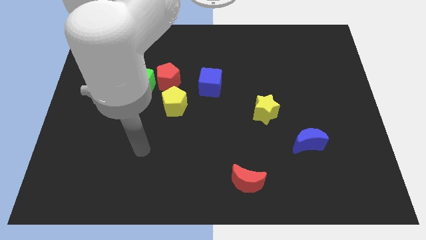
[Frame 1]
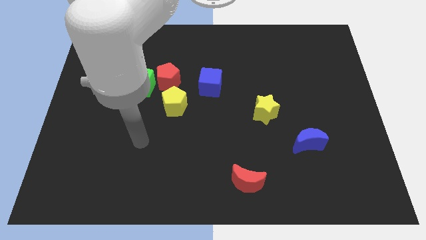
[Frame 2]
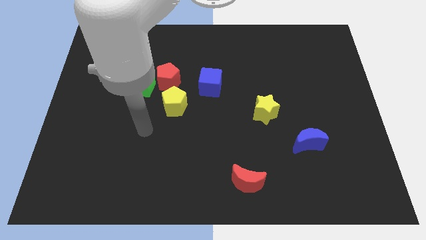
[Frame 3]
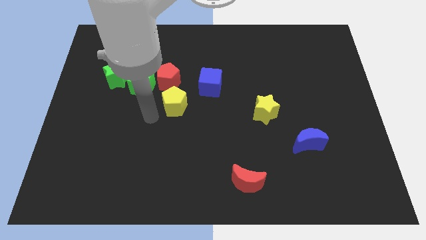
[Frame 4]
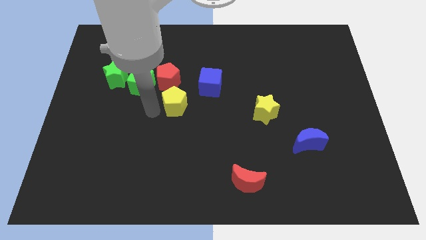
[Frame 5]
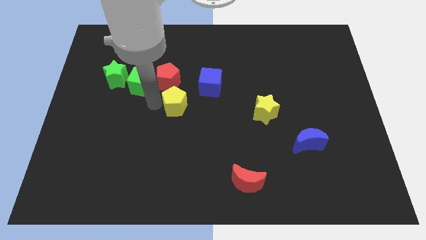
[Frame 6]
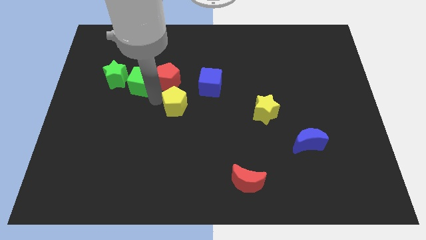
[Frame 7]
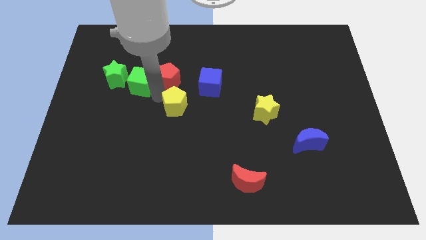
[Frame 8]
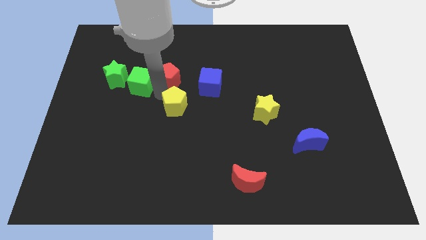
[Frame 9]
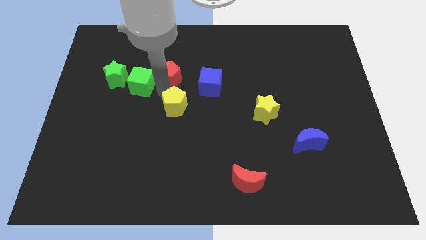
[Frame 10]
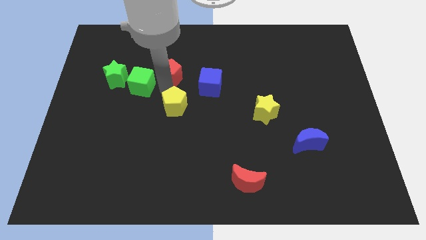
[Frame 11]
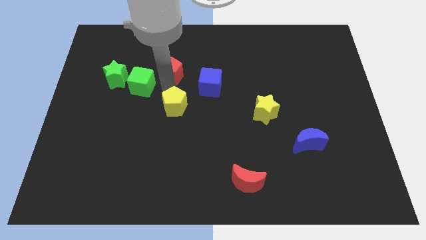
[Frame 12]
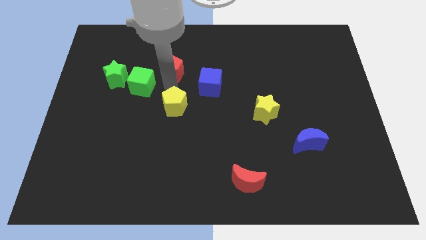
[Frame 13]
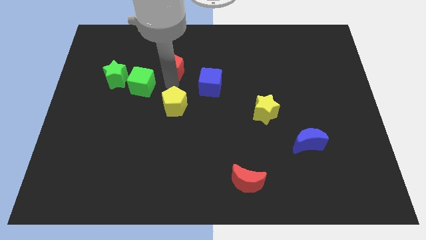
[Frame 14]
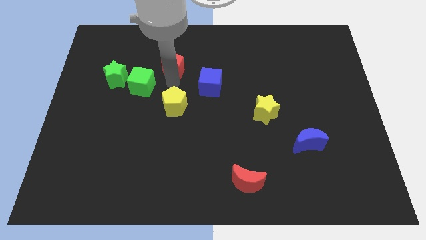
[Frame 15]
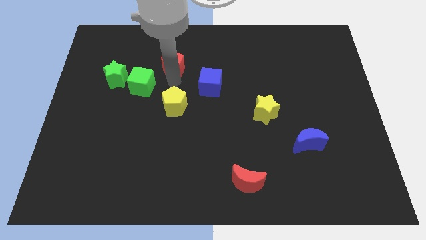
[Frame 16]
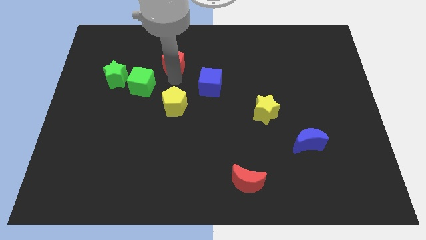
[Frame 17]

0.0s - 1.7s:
separate the red pentagon from the green cube and yellow pentagon

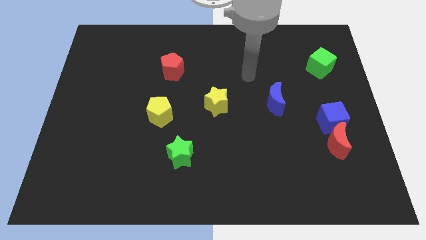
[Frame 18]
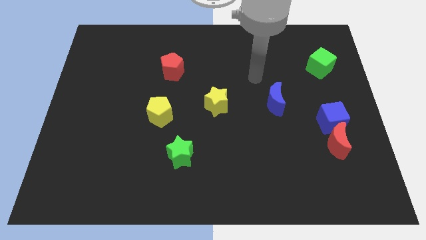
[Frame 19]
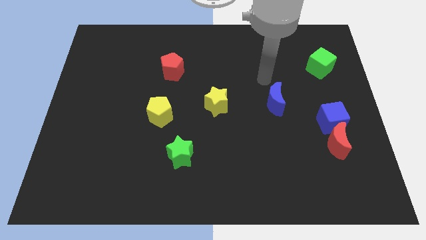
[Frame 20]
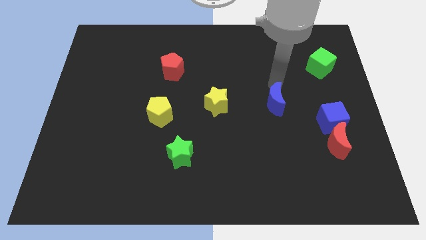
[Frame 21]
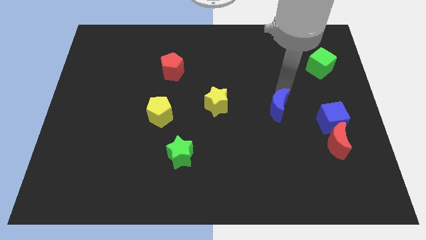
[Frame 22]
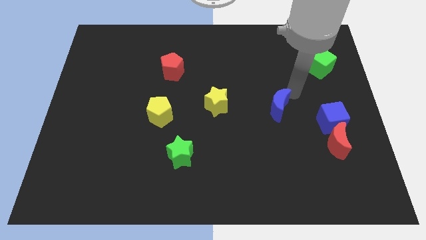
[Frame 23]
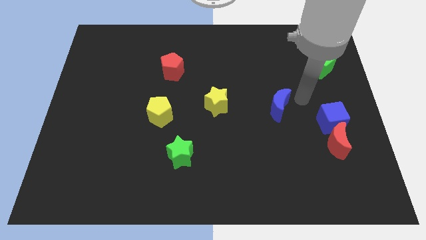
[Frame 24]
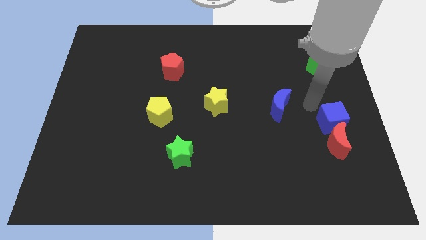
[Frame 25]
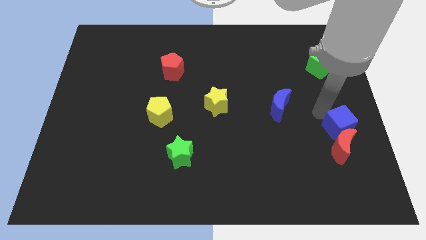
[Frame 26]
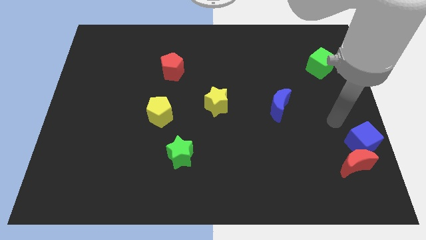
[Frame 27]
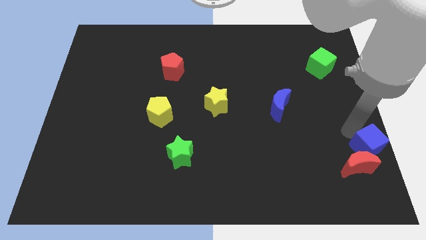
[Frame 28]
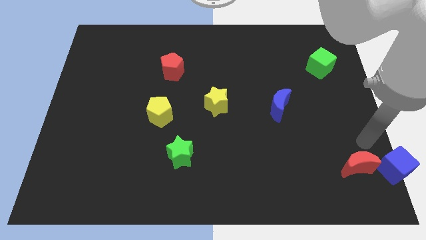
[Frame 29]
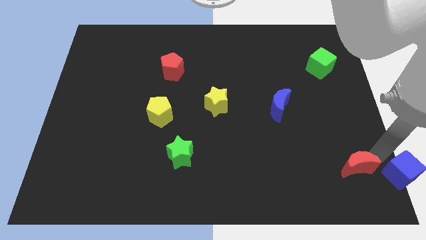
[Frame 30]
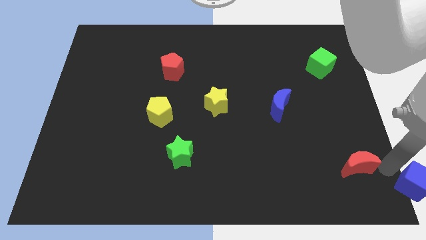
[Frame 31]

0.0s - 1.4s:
separate the red moon from the blue cube

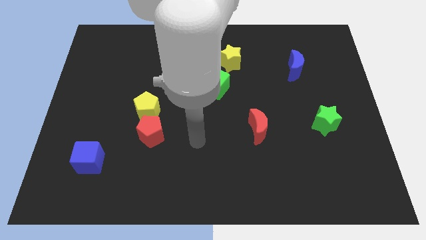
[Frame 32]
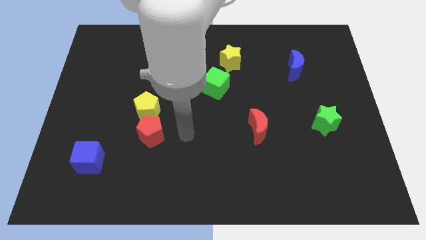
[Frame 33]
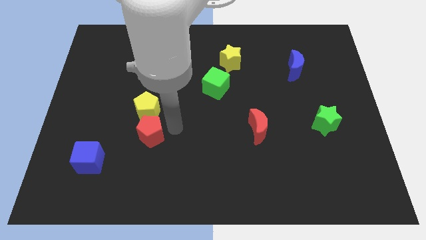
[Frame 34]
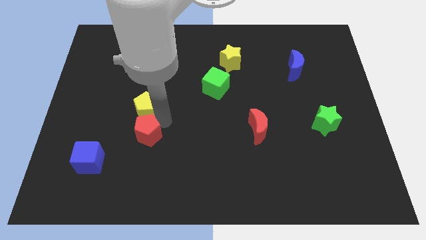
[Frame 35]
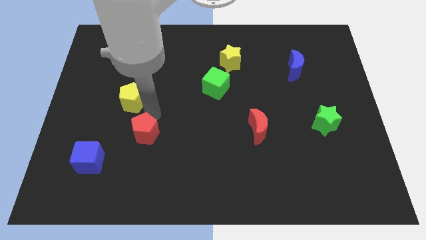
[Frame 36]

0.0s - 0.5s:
pull the red pentagon apart from the yellow pentagon

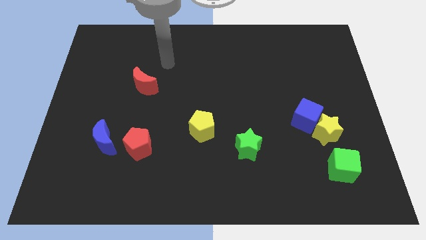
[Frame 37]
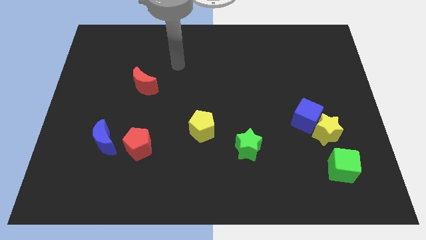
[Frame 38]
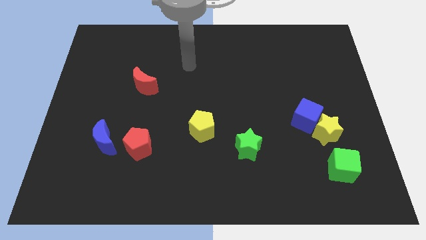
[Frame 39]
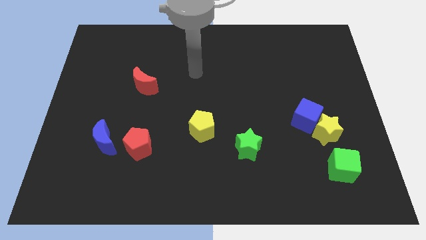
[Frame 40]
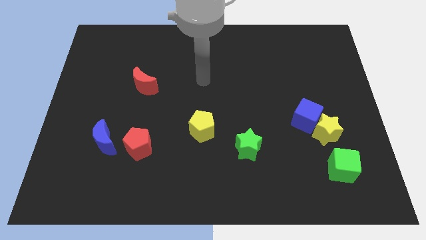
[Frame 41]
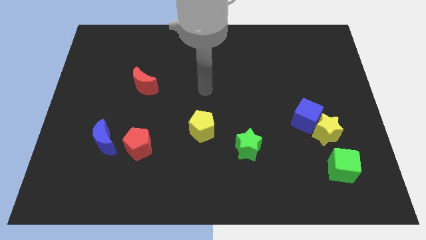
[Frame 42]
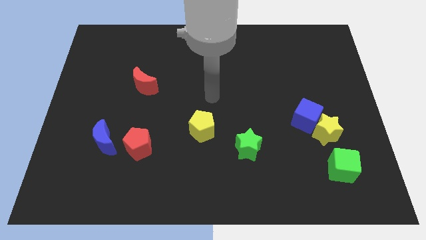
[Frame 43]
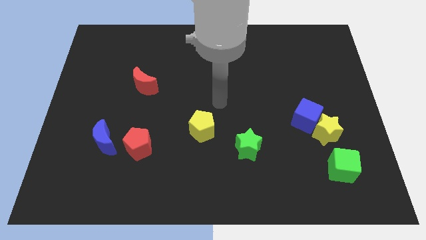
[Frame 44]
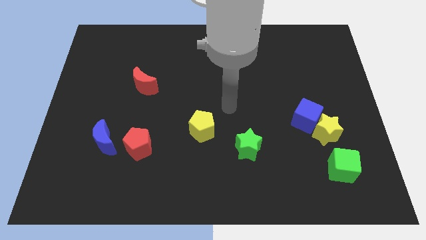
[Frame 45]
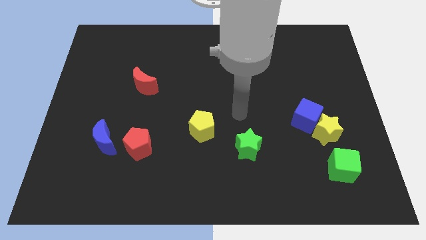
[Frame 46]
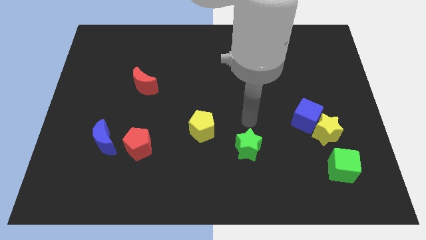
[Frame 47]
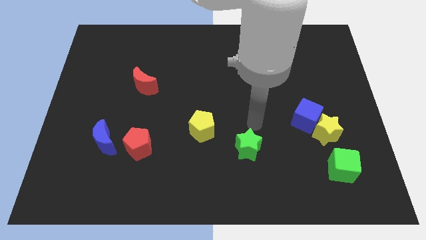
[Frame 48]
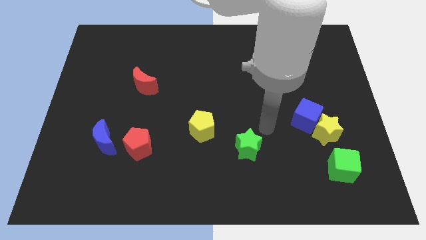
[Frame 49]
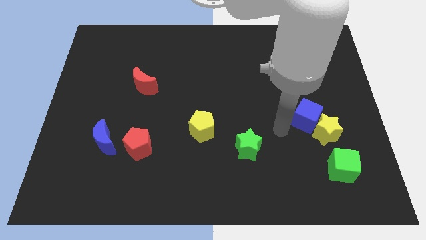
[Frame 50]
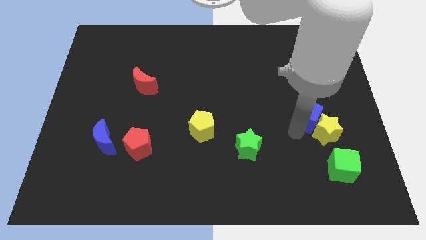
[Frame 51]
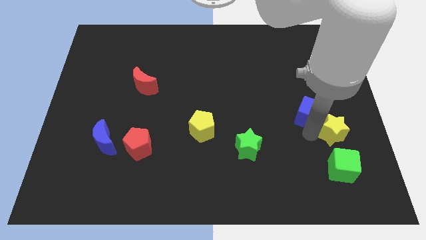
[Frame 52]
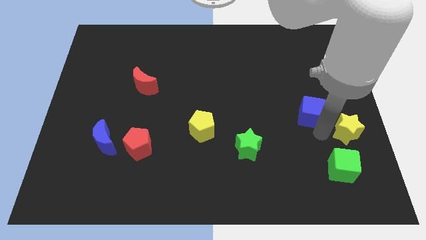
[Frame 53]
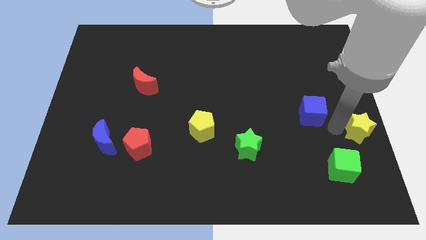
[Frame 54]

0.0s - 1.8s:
move the blue cube away from the yellow star

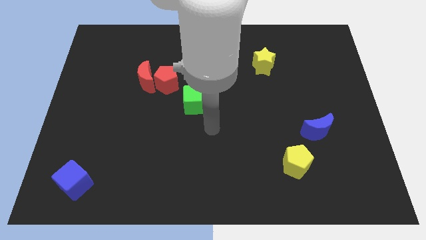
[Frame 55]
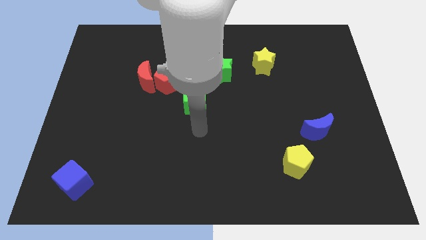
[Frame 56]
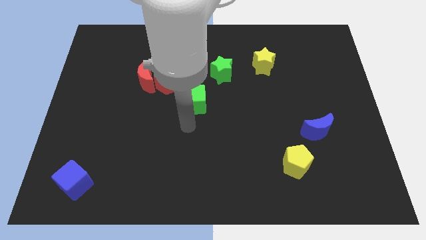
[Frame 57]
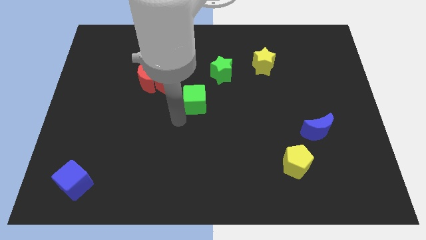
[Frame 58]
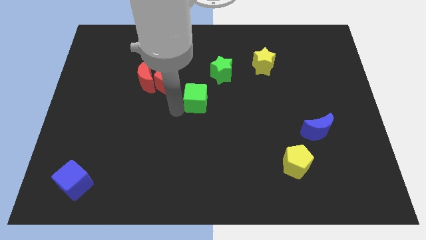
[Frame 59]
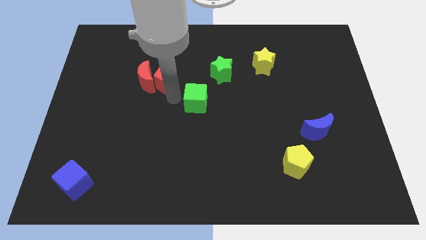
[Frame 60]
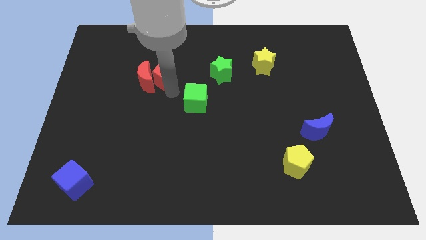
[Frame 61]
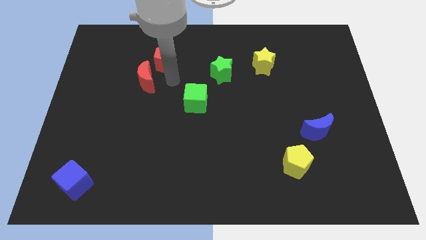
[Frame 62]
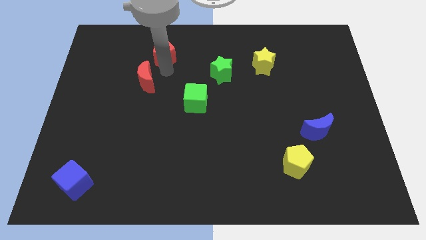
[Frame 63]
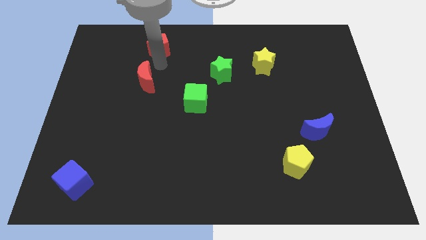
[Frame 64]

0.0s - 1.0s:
separate the red moon from the red pentagon

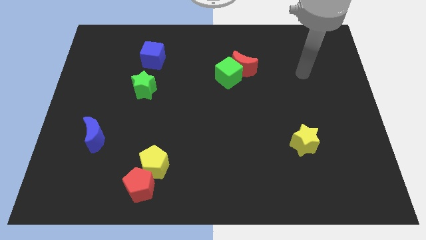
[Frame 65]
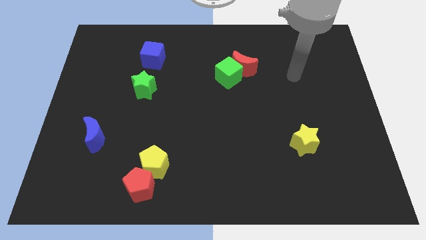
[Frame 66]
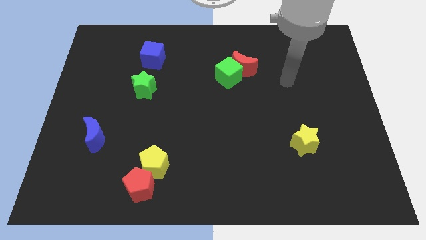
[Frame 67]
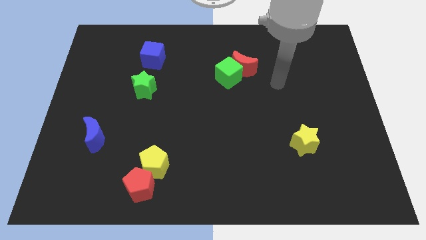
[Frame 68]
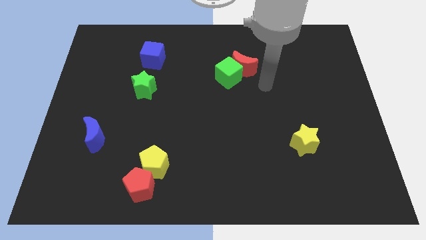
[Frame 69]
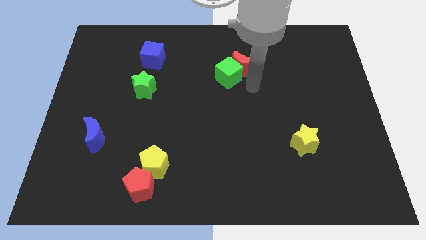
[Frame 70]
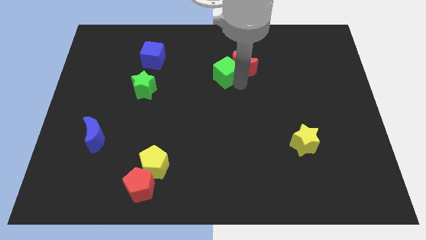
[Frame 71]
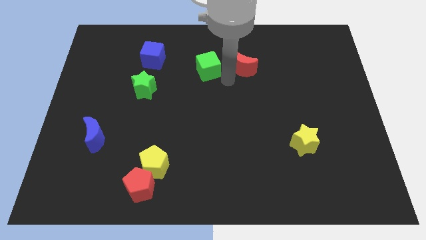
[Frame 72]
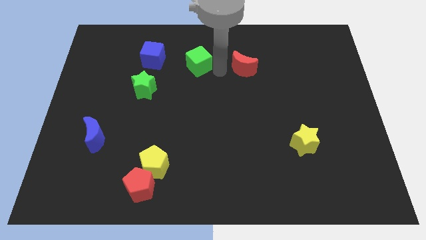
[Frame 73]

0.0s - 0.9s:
pull the red moon apart from the green cube

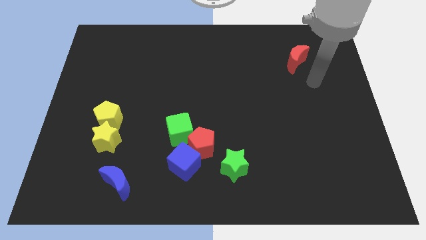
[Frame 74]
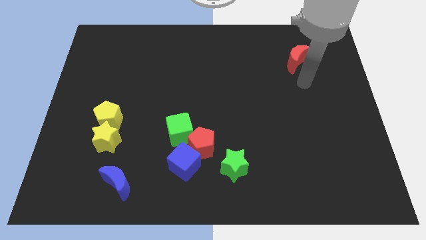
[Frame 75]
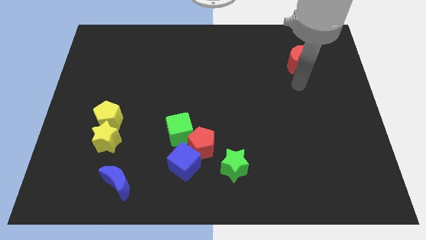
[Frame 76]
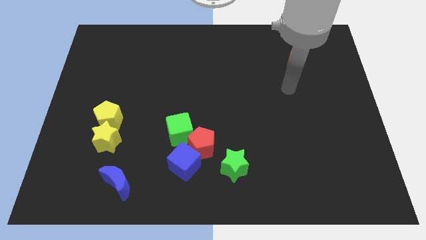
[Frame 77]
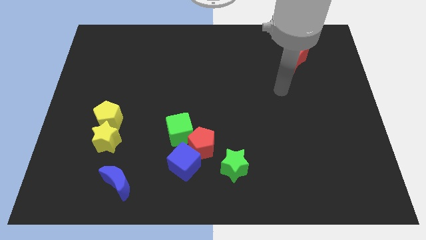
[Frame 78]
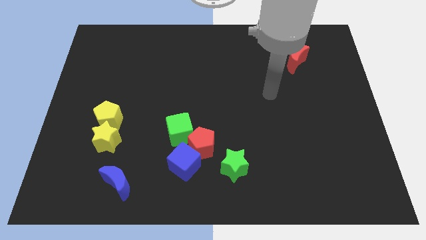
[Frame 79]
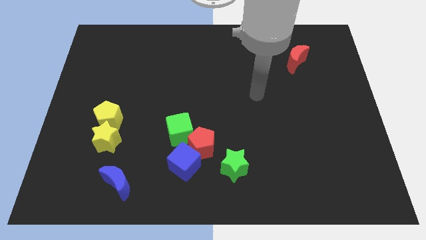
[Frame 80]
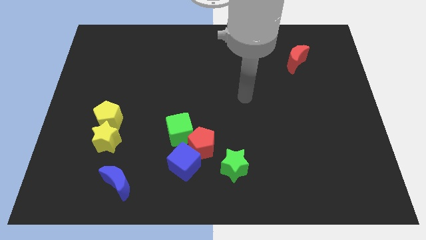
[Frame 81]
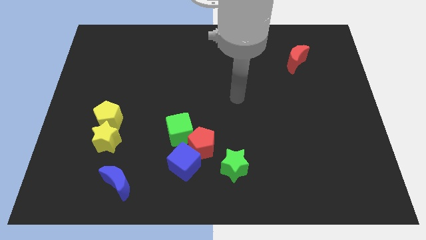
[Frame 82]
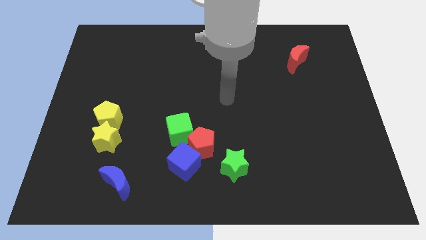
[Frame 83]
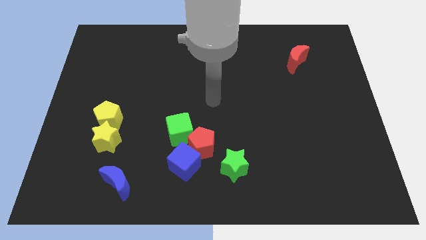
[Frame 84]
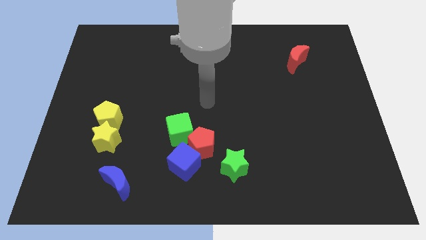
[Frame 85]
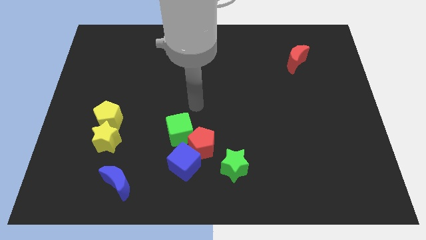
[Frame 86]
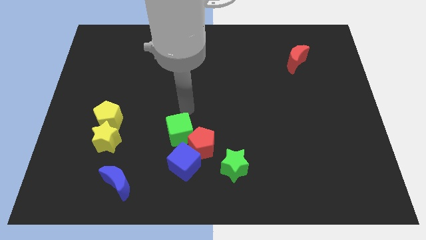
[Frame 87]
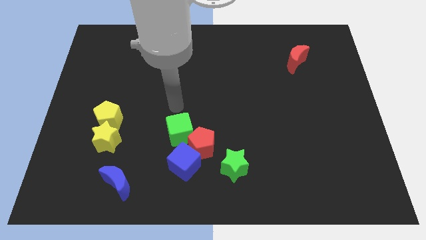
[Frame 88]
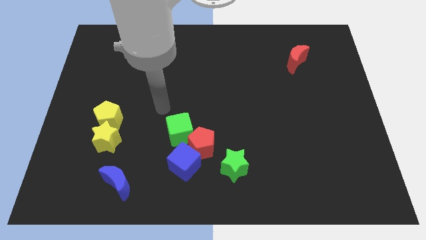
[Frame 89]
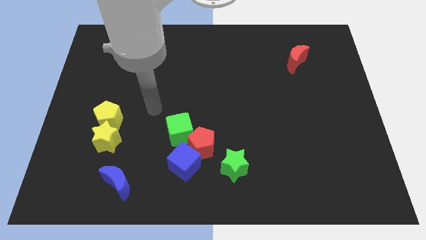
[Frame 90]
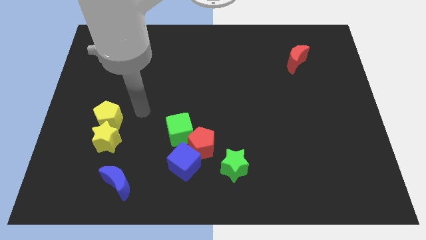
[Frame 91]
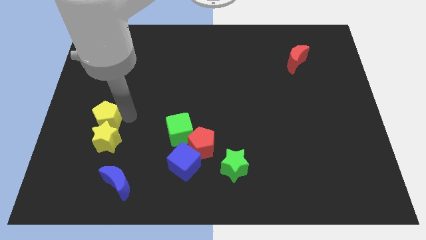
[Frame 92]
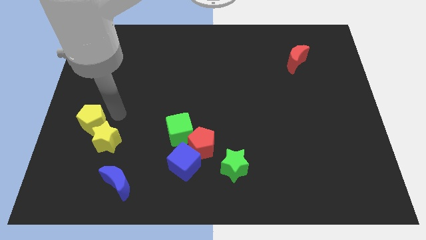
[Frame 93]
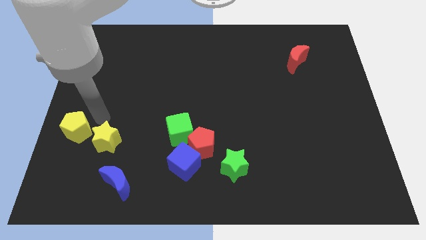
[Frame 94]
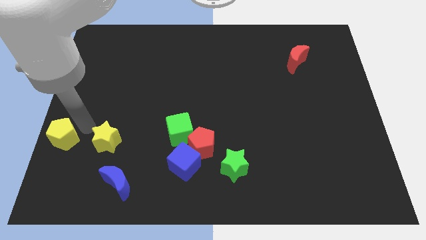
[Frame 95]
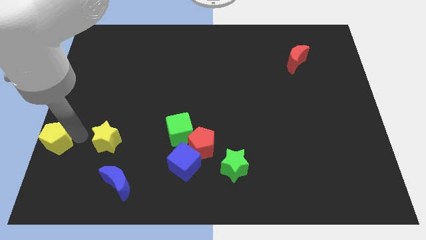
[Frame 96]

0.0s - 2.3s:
pull the yellow star apart from the yellow pentagon
